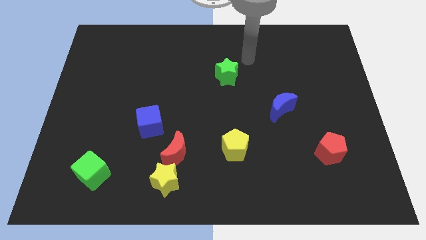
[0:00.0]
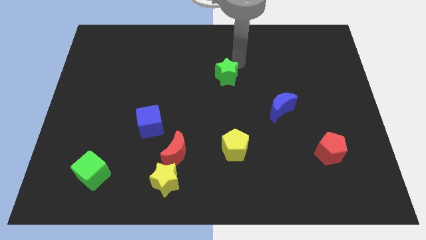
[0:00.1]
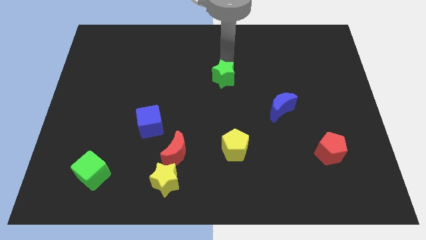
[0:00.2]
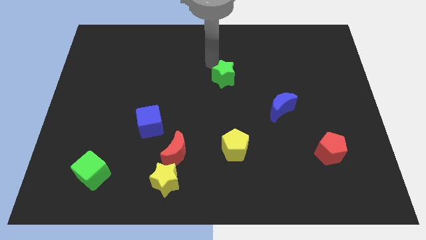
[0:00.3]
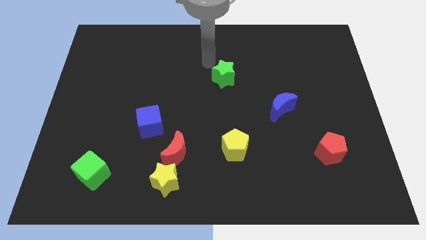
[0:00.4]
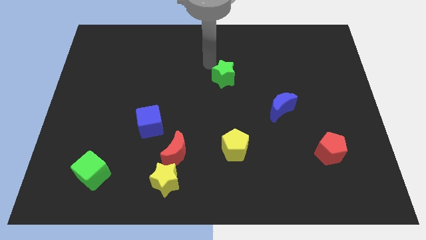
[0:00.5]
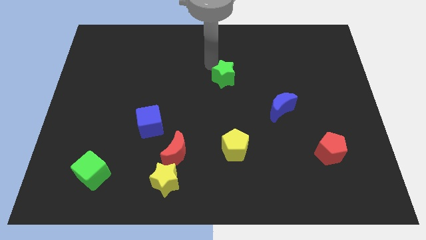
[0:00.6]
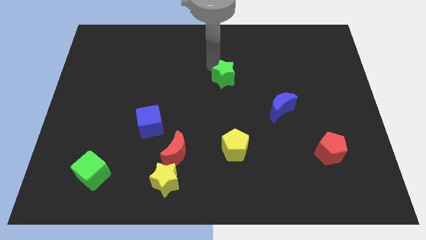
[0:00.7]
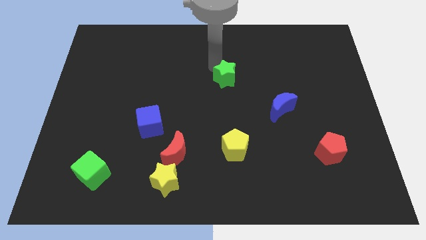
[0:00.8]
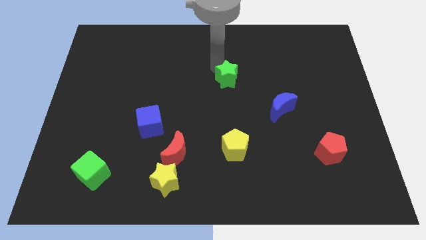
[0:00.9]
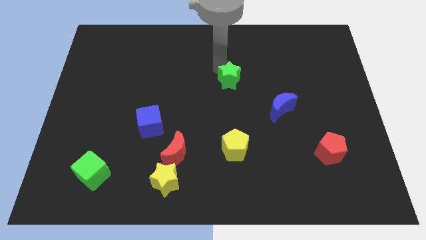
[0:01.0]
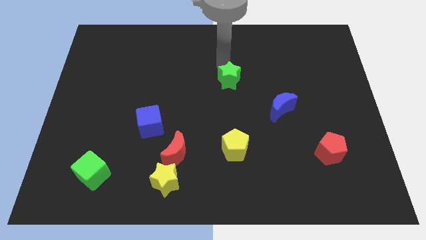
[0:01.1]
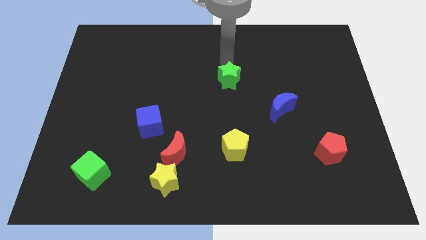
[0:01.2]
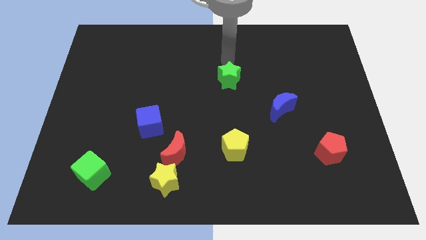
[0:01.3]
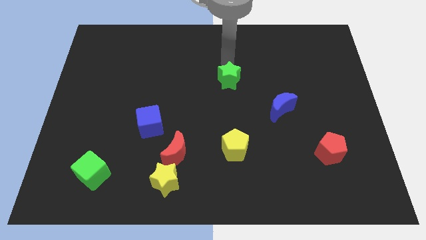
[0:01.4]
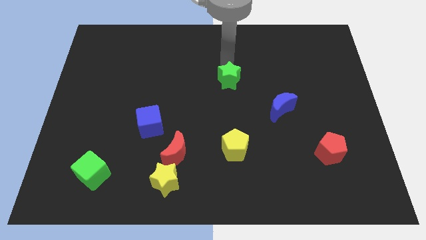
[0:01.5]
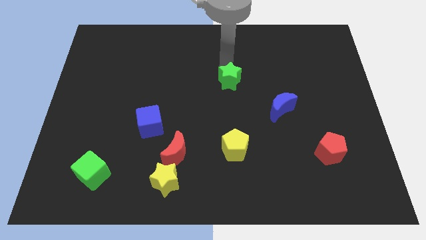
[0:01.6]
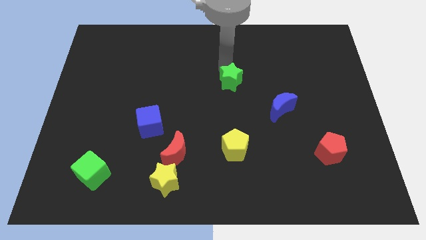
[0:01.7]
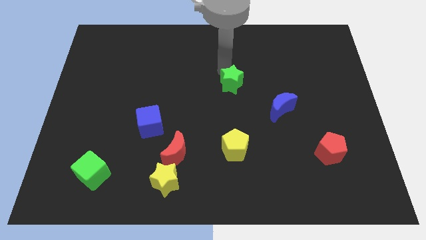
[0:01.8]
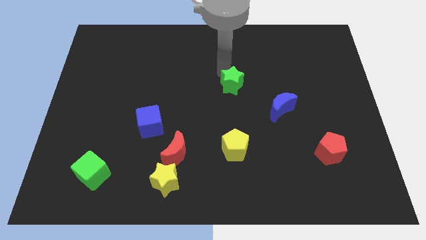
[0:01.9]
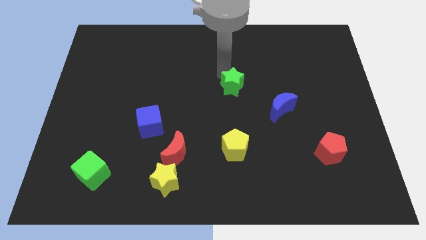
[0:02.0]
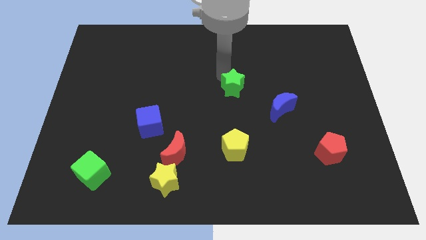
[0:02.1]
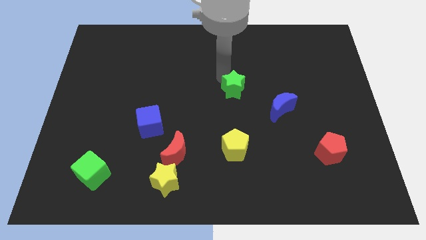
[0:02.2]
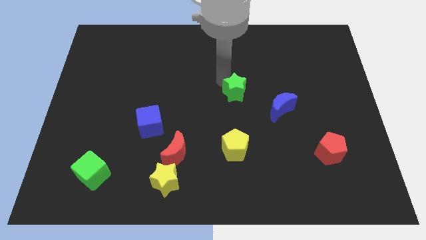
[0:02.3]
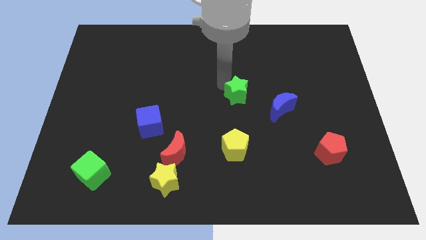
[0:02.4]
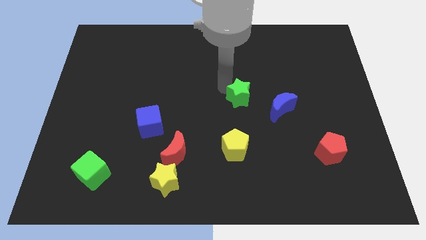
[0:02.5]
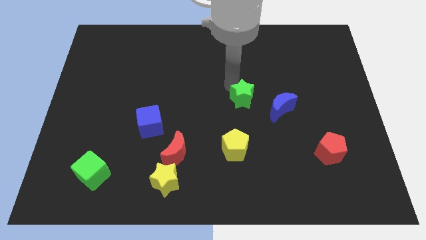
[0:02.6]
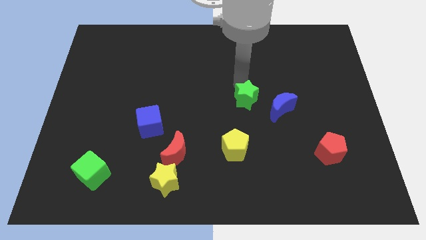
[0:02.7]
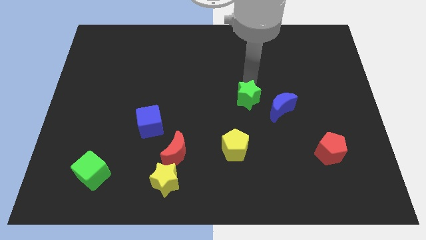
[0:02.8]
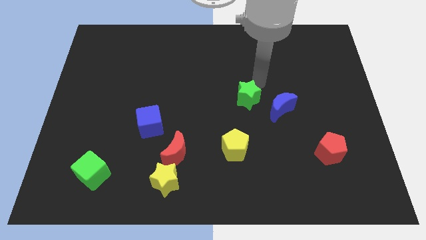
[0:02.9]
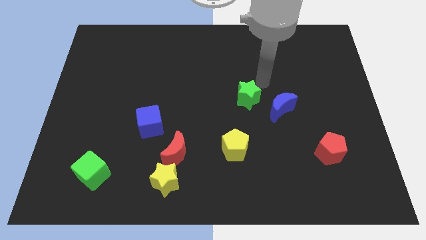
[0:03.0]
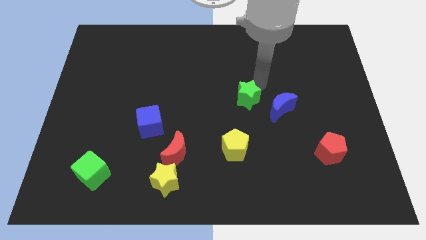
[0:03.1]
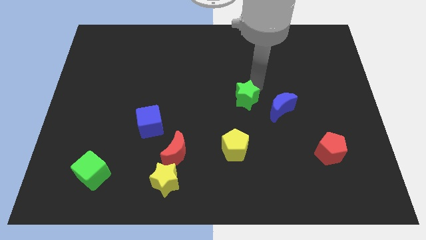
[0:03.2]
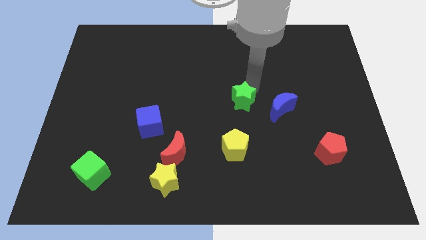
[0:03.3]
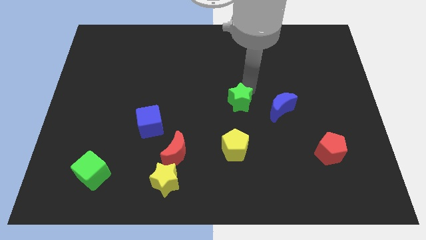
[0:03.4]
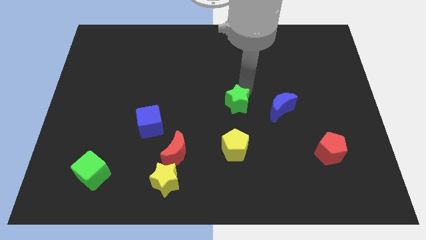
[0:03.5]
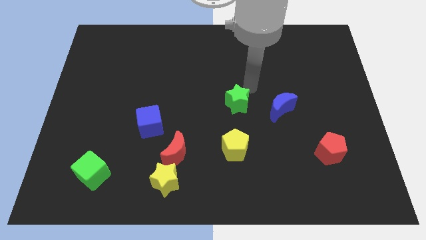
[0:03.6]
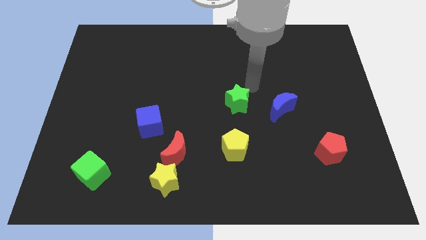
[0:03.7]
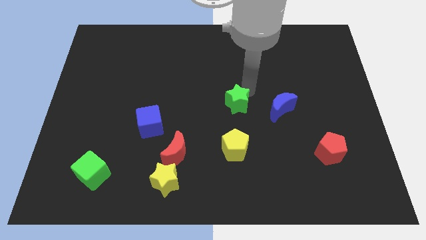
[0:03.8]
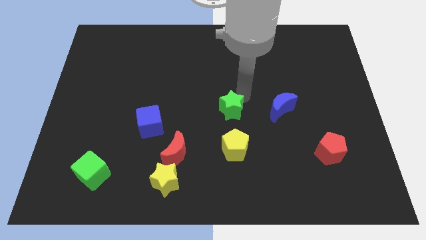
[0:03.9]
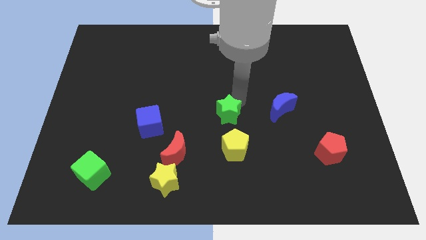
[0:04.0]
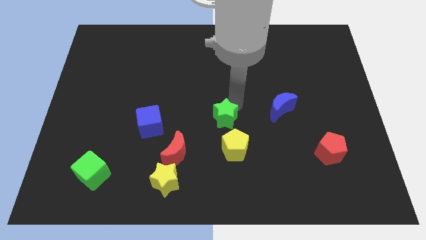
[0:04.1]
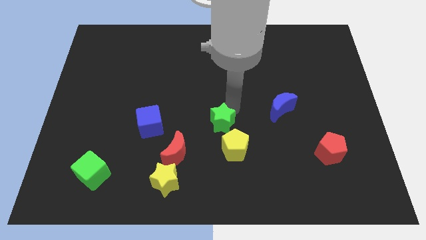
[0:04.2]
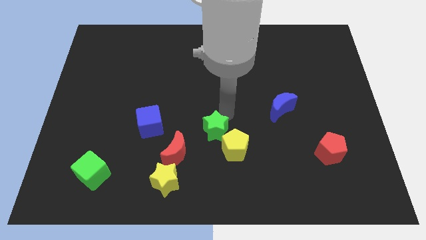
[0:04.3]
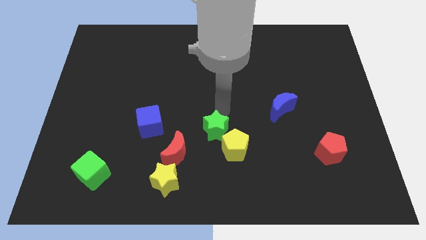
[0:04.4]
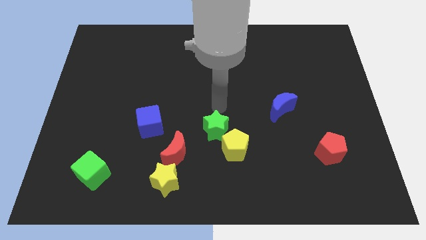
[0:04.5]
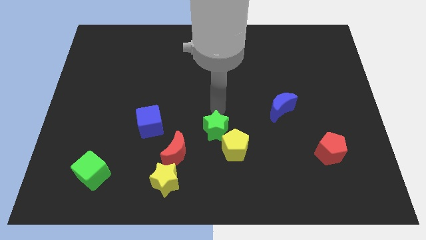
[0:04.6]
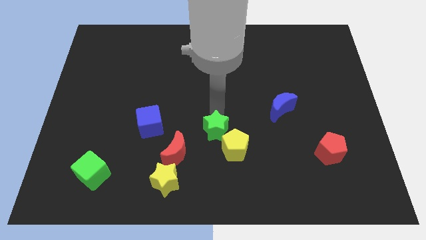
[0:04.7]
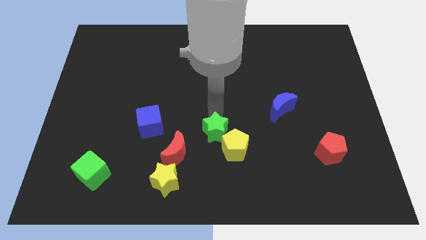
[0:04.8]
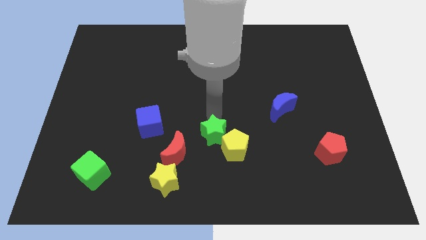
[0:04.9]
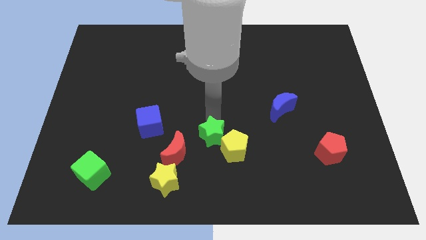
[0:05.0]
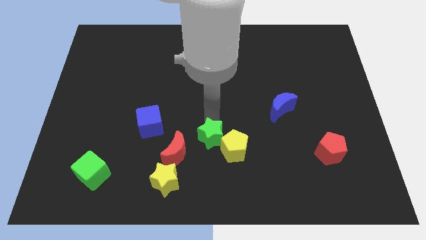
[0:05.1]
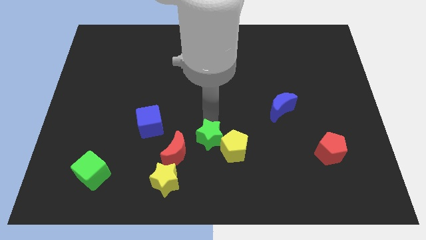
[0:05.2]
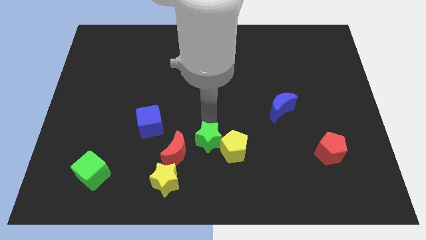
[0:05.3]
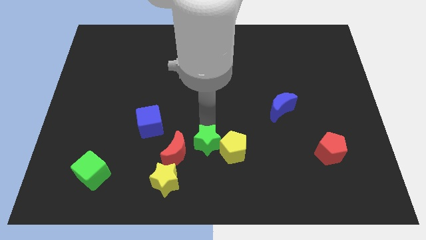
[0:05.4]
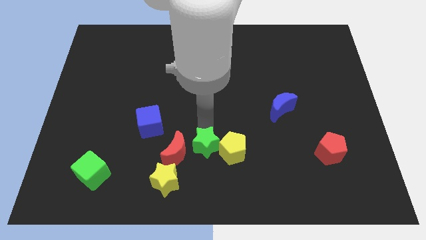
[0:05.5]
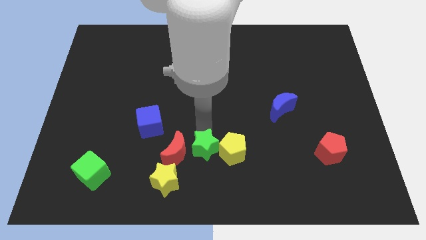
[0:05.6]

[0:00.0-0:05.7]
put the green star to the bottom left side of the yellow pentagon

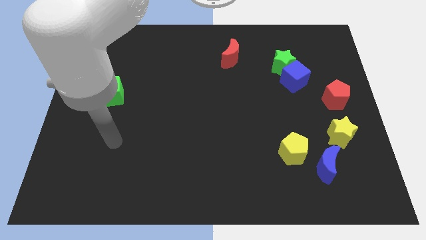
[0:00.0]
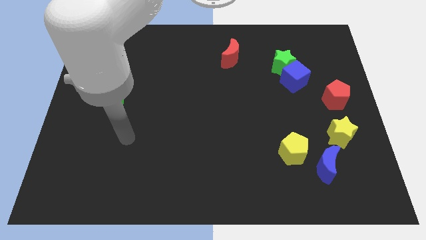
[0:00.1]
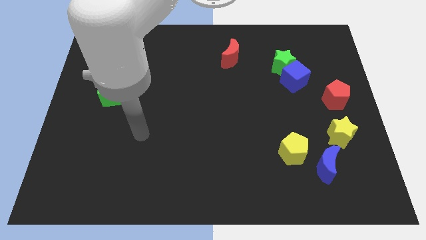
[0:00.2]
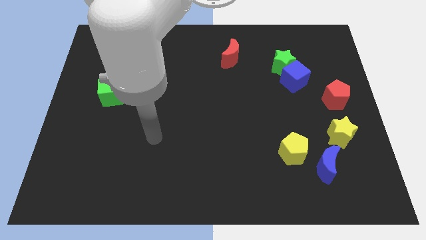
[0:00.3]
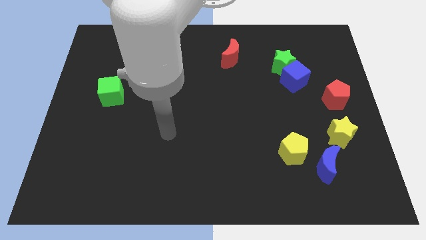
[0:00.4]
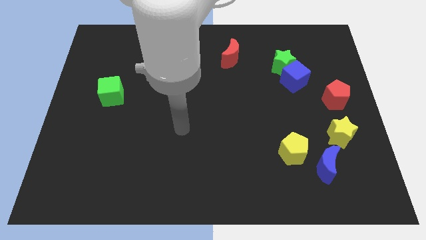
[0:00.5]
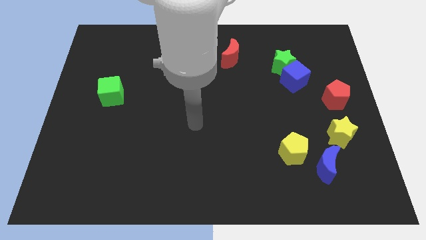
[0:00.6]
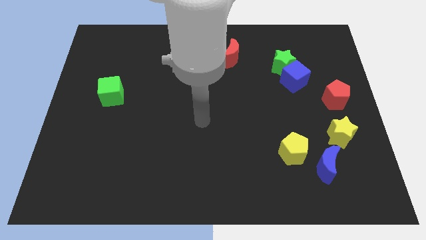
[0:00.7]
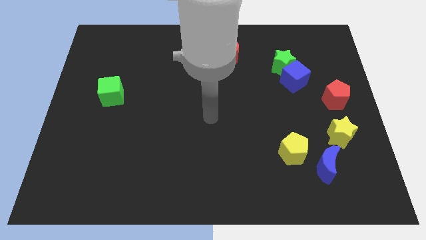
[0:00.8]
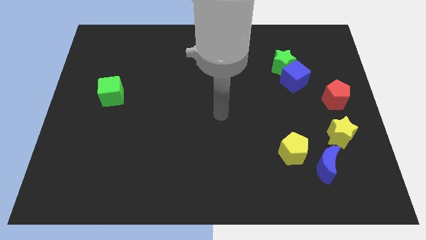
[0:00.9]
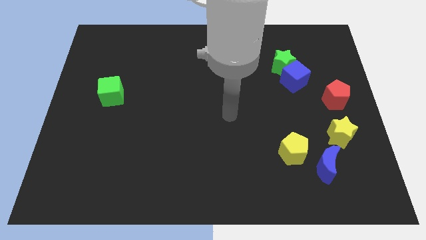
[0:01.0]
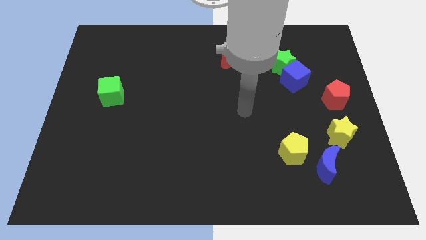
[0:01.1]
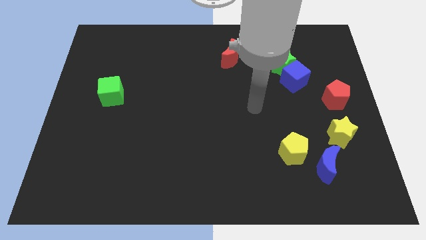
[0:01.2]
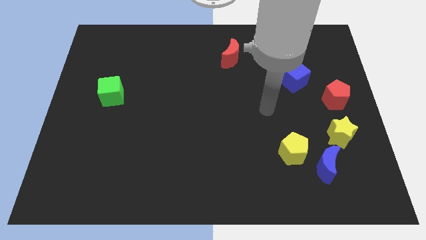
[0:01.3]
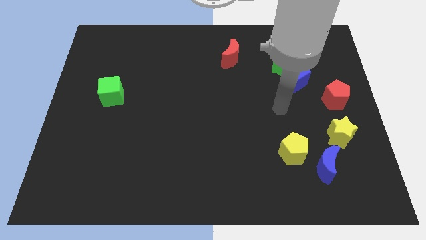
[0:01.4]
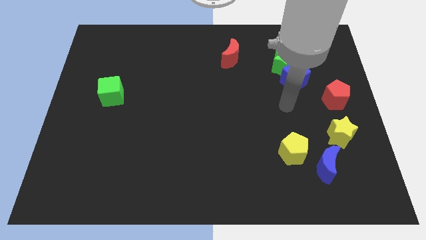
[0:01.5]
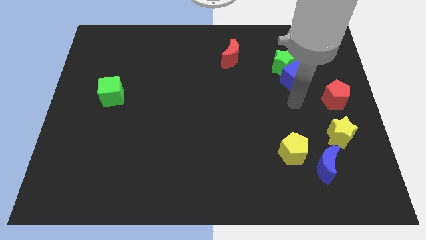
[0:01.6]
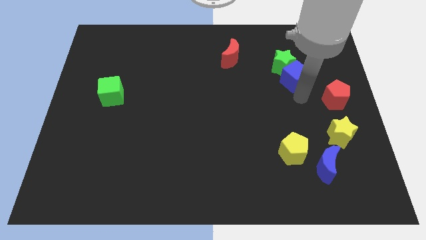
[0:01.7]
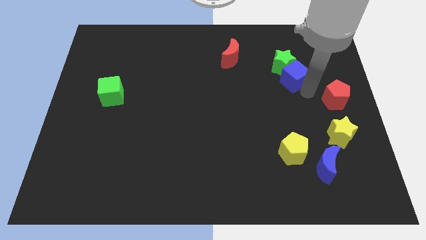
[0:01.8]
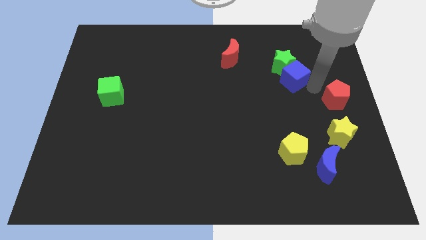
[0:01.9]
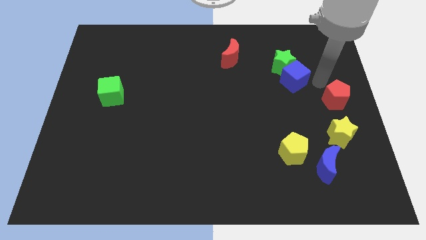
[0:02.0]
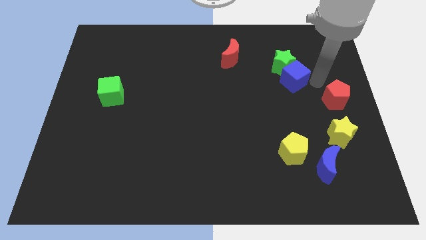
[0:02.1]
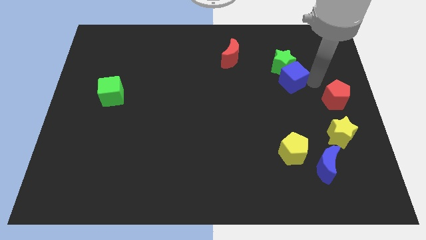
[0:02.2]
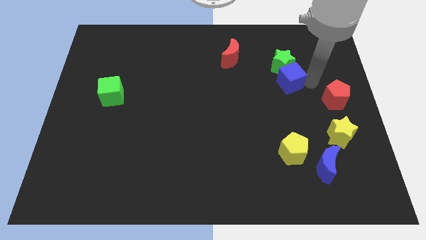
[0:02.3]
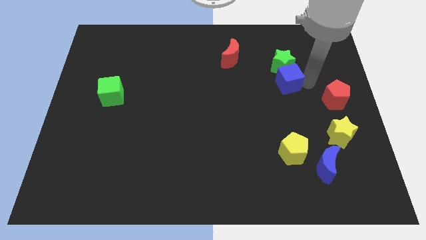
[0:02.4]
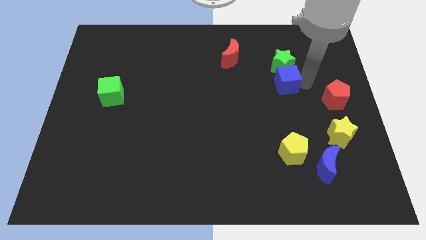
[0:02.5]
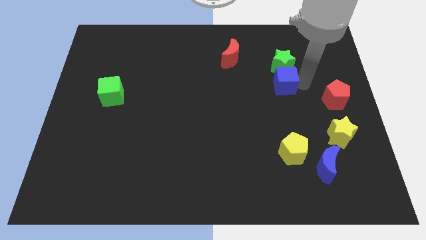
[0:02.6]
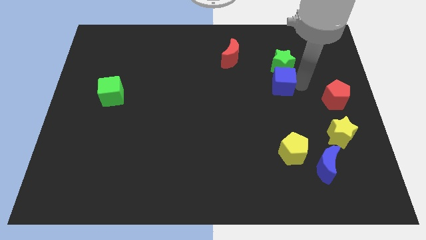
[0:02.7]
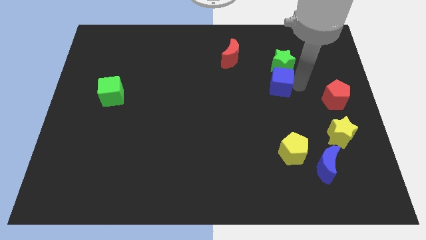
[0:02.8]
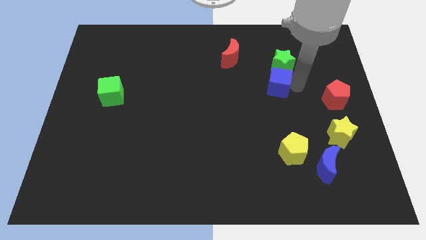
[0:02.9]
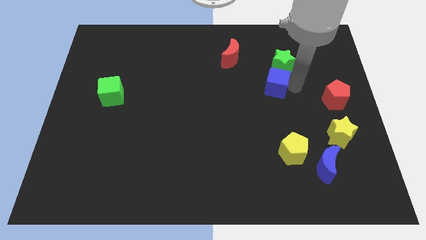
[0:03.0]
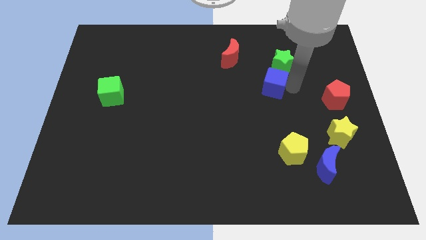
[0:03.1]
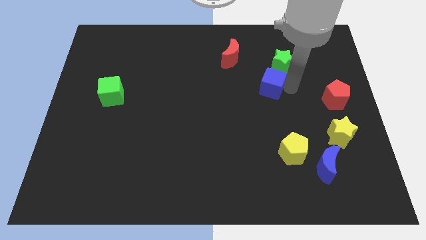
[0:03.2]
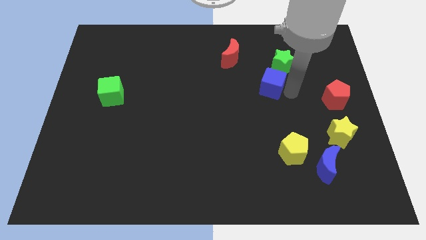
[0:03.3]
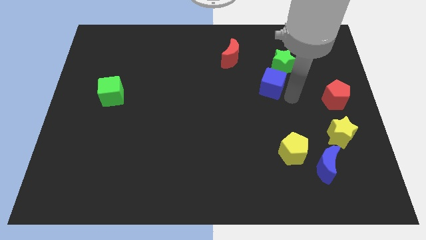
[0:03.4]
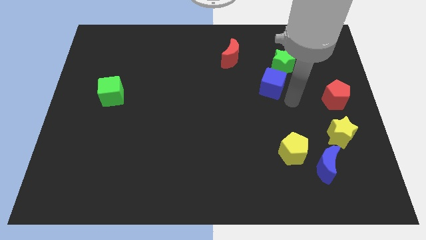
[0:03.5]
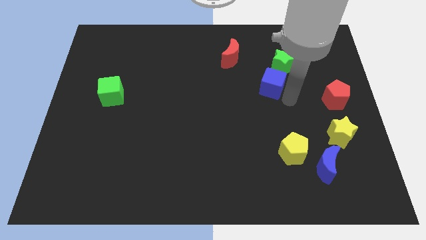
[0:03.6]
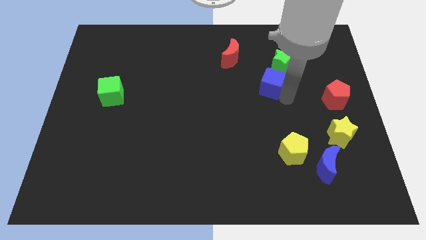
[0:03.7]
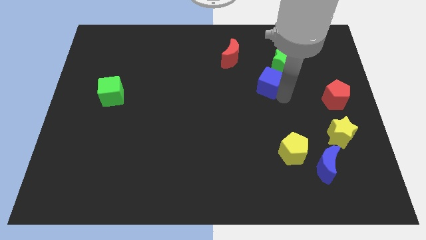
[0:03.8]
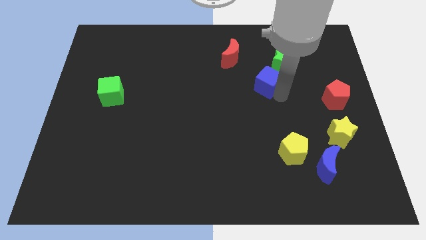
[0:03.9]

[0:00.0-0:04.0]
put the blue cube diagonally down and to the right of the red moon
